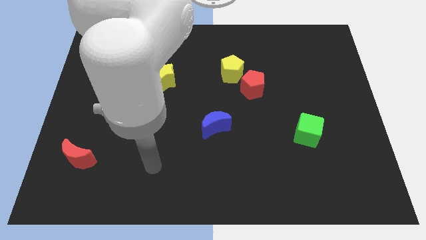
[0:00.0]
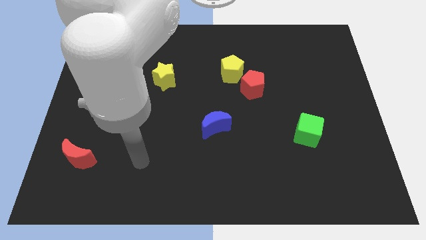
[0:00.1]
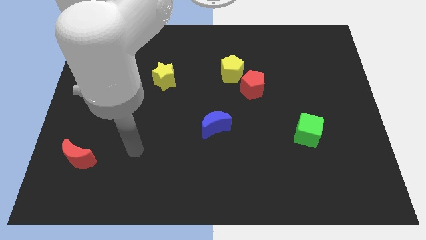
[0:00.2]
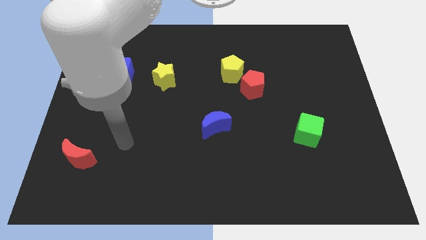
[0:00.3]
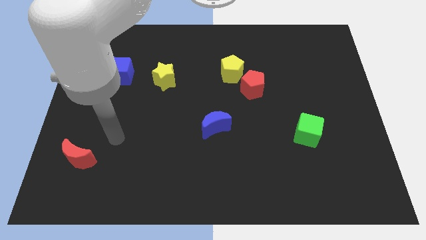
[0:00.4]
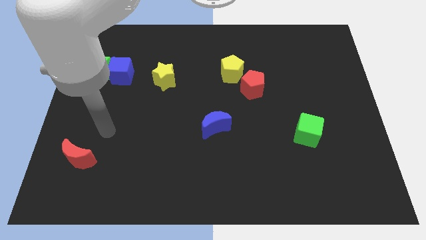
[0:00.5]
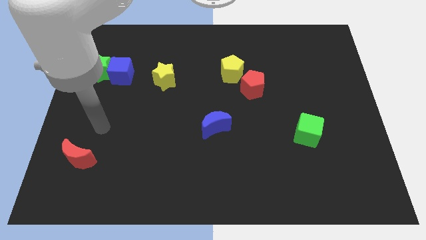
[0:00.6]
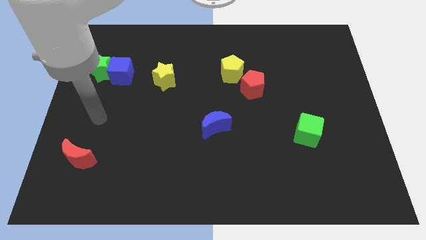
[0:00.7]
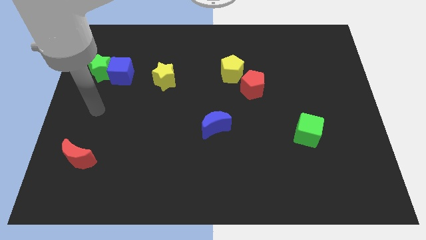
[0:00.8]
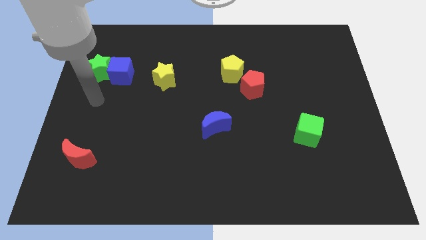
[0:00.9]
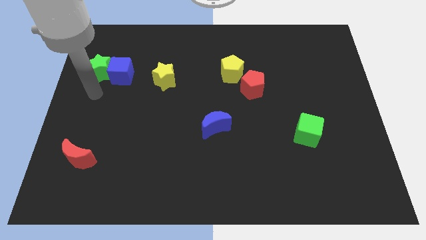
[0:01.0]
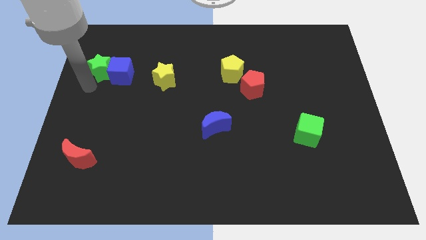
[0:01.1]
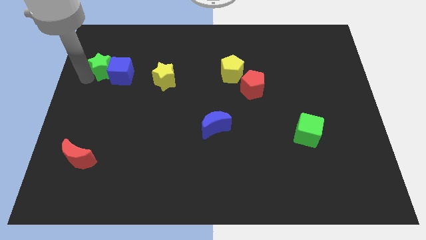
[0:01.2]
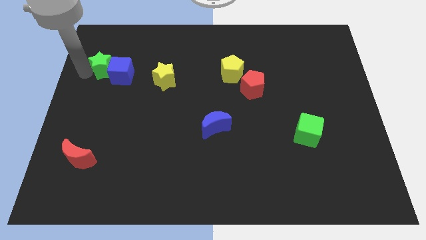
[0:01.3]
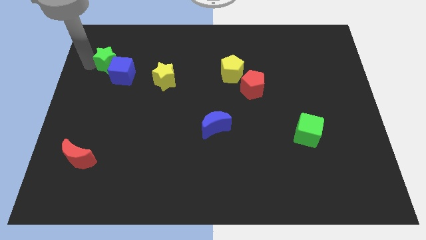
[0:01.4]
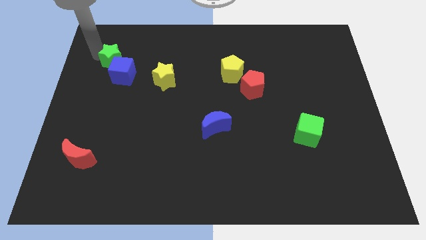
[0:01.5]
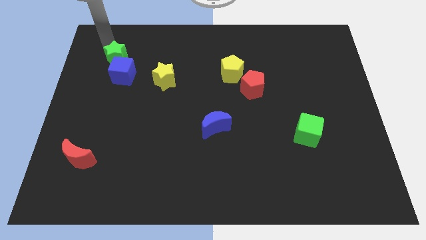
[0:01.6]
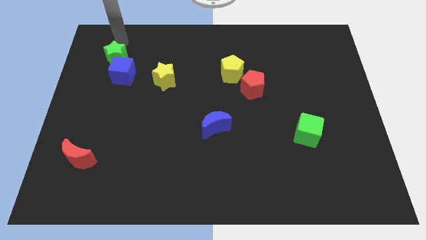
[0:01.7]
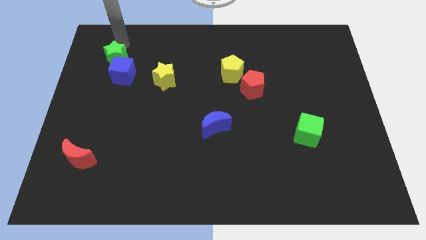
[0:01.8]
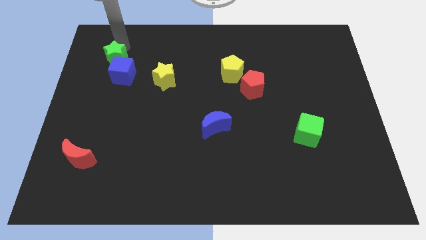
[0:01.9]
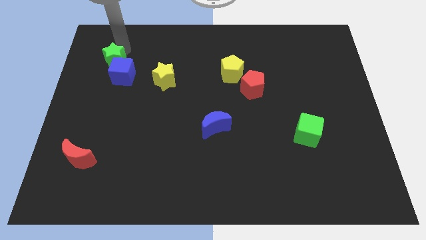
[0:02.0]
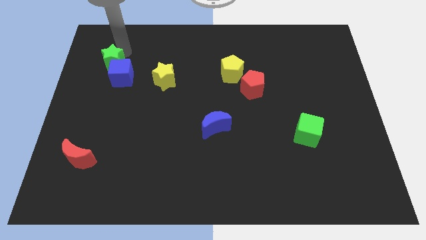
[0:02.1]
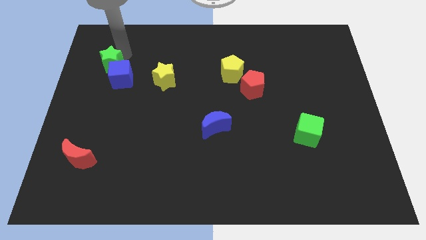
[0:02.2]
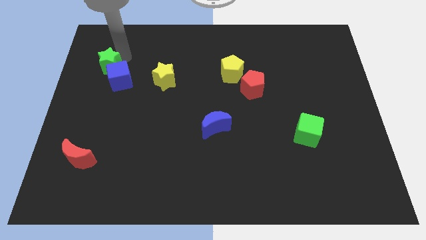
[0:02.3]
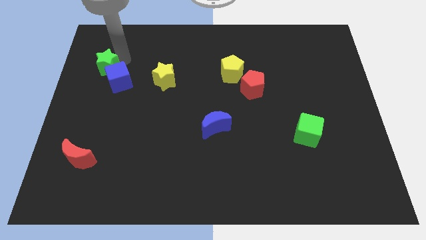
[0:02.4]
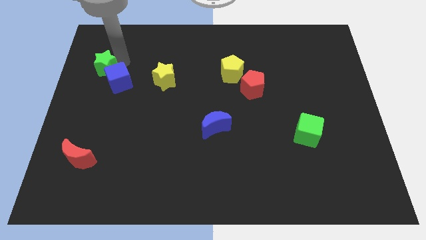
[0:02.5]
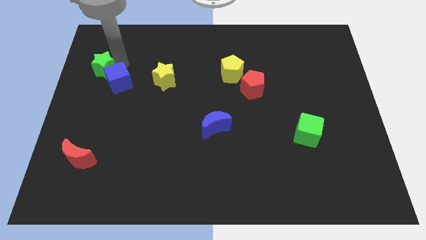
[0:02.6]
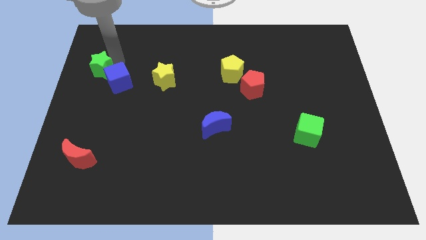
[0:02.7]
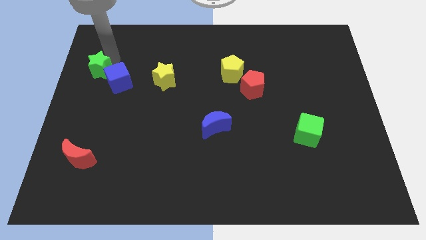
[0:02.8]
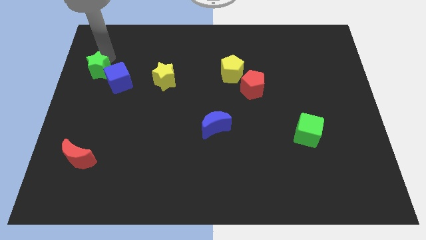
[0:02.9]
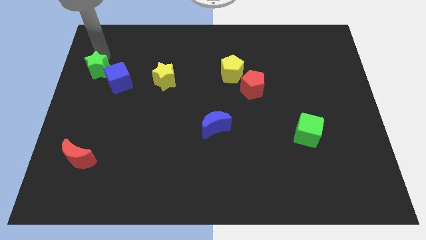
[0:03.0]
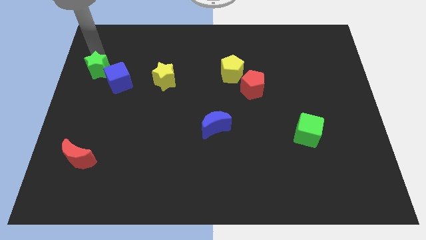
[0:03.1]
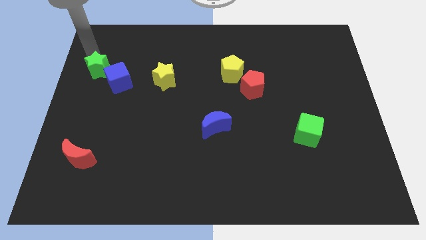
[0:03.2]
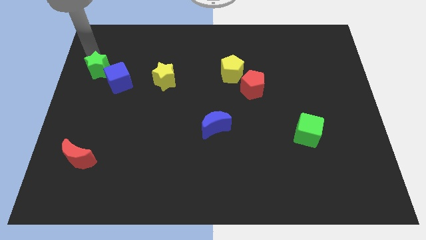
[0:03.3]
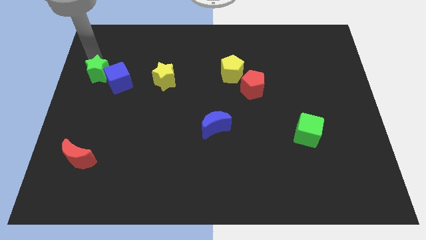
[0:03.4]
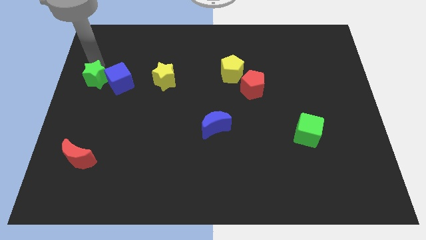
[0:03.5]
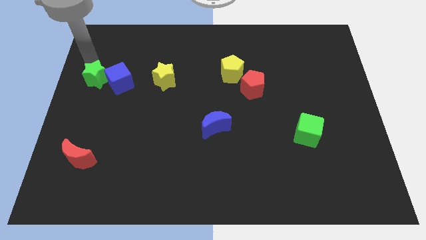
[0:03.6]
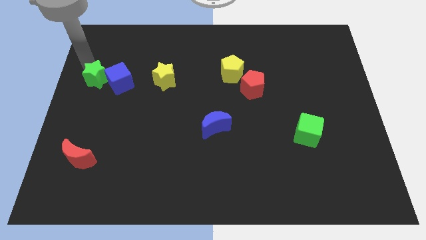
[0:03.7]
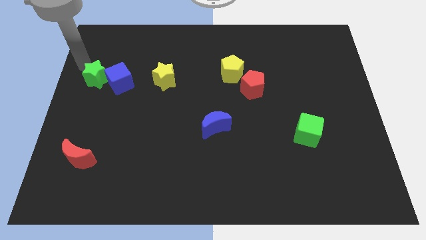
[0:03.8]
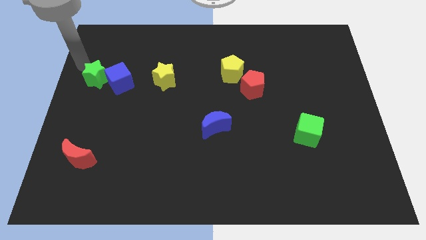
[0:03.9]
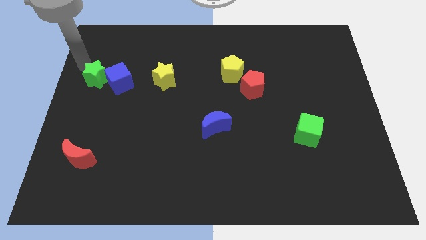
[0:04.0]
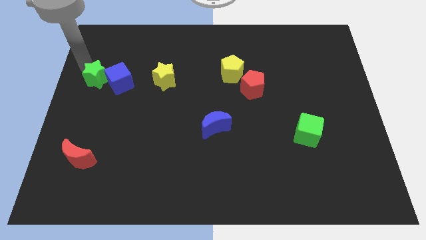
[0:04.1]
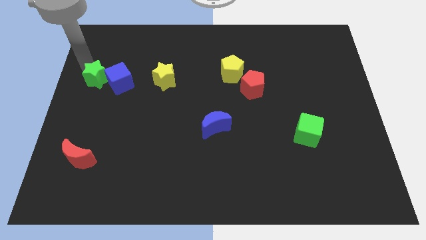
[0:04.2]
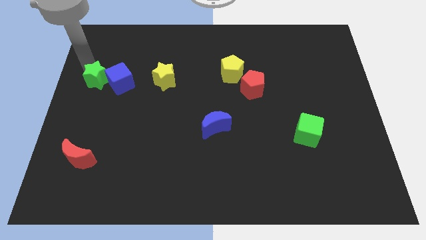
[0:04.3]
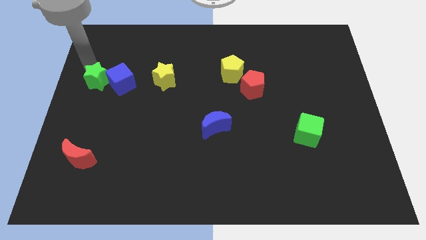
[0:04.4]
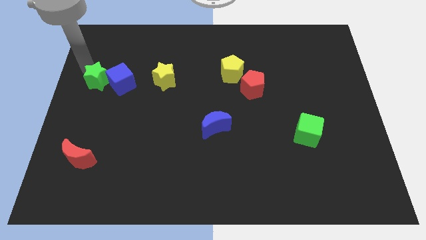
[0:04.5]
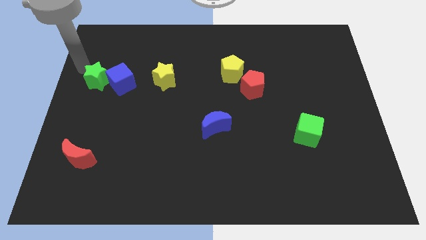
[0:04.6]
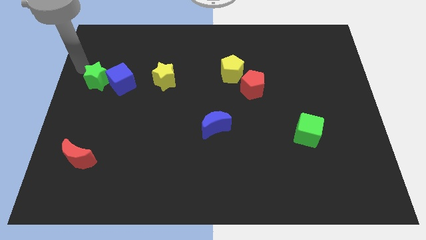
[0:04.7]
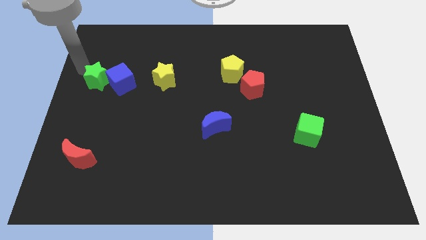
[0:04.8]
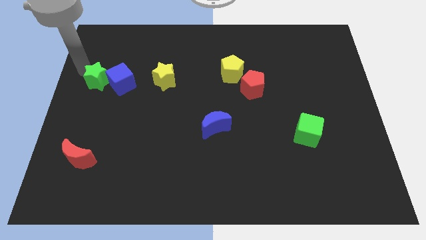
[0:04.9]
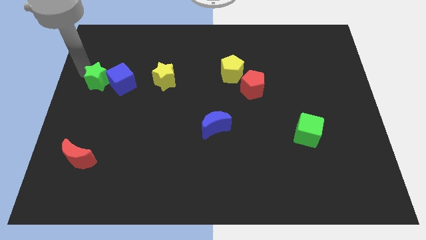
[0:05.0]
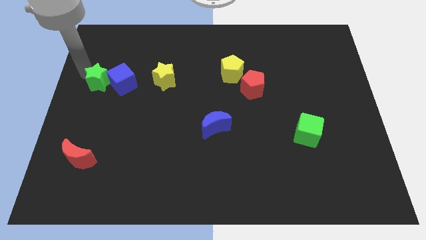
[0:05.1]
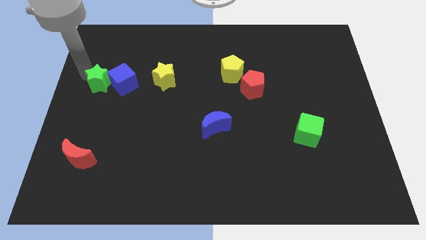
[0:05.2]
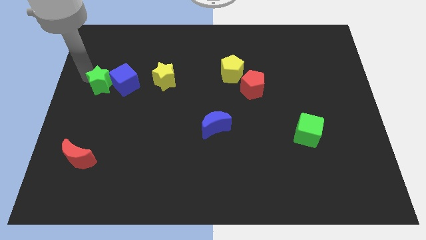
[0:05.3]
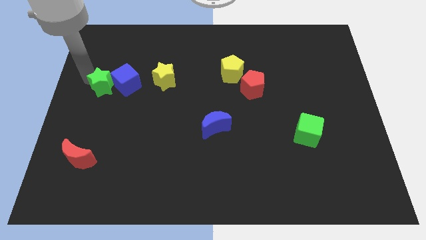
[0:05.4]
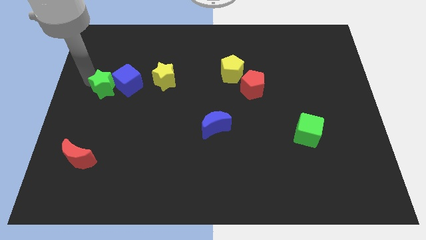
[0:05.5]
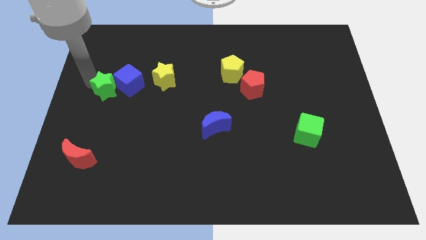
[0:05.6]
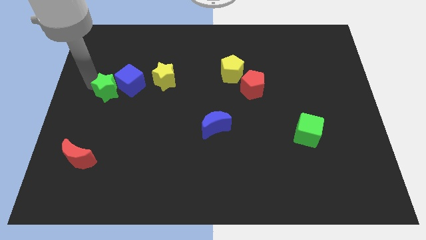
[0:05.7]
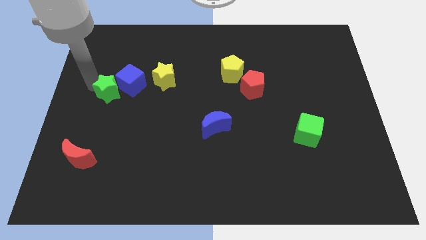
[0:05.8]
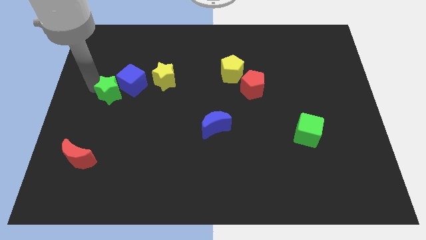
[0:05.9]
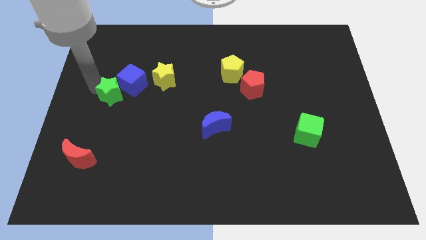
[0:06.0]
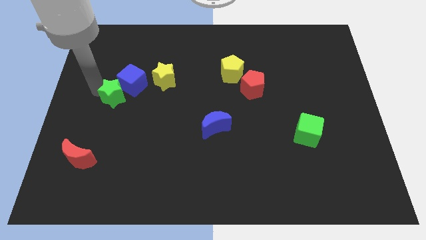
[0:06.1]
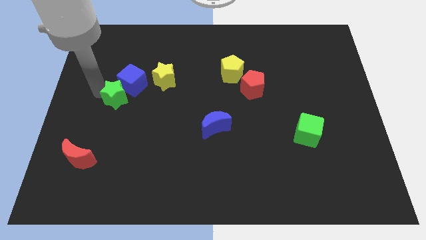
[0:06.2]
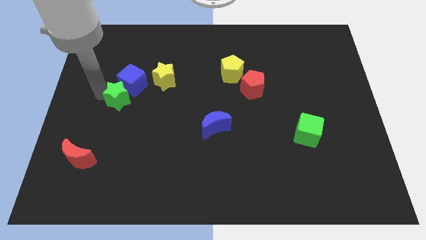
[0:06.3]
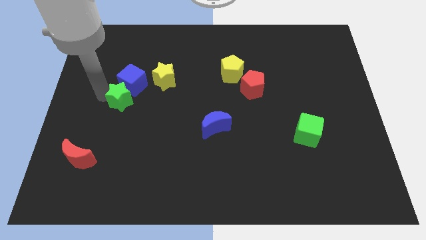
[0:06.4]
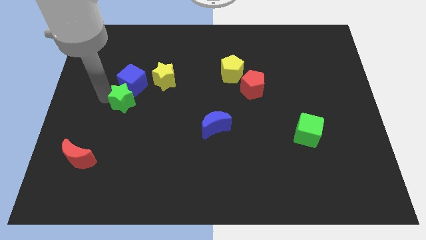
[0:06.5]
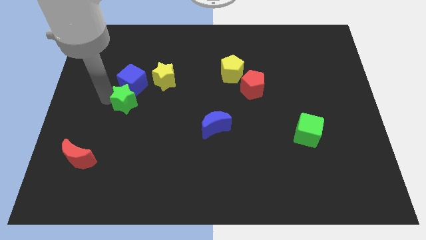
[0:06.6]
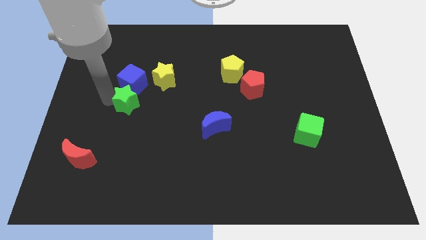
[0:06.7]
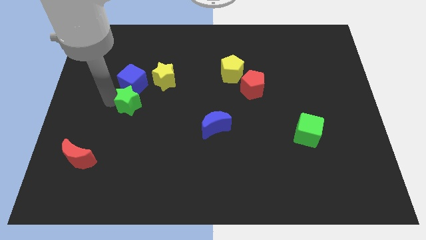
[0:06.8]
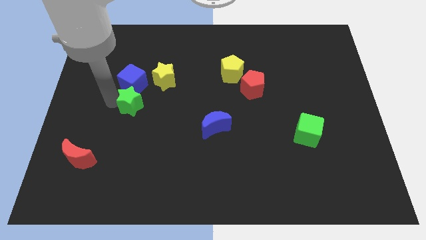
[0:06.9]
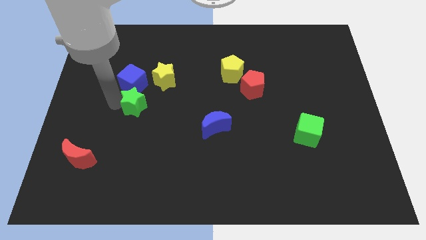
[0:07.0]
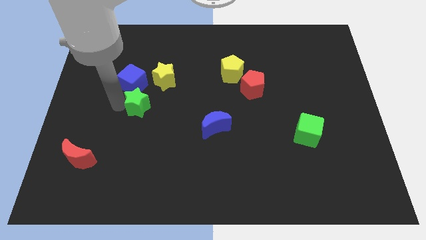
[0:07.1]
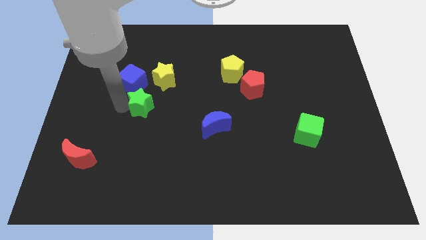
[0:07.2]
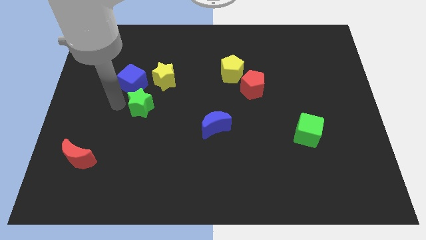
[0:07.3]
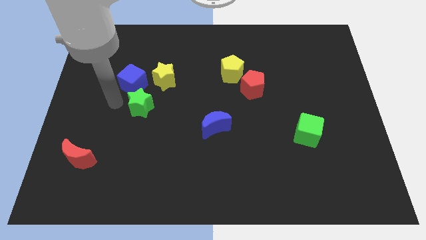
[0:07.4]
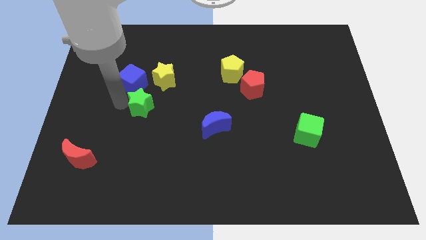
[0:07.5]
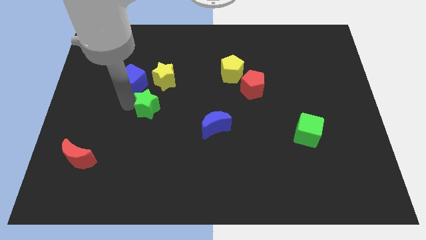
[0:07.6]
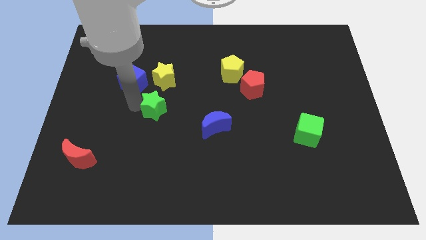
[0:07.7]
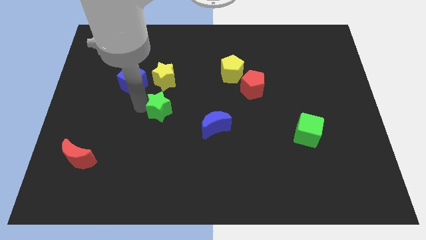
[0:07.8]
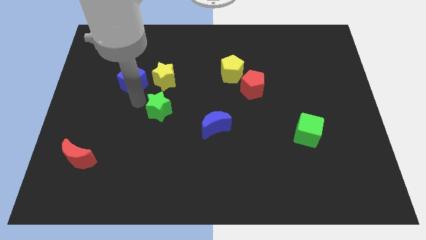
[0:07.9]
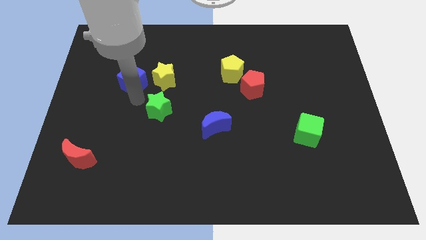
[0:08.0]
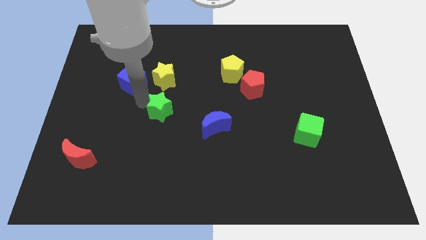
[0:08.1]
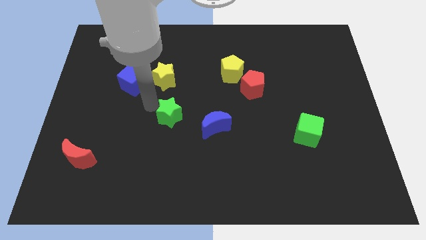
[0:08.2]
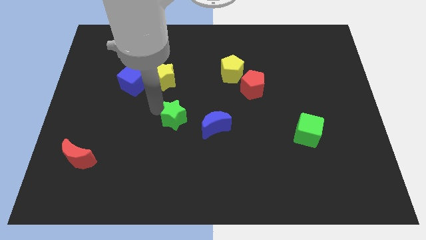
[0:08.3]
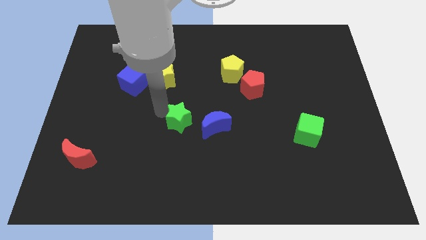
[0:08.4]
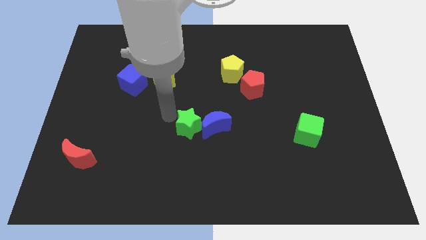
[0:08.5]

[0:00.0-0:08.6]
put the green star close to the blue moon
